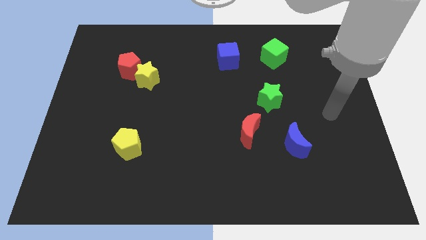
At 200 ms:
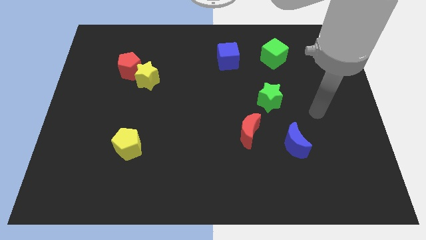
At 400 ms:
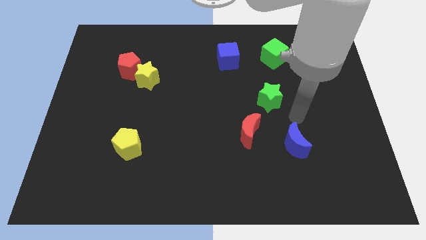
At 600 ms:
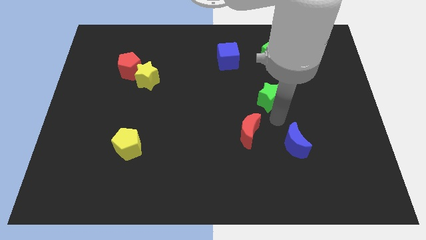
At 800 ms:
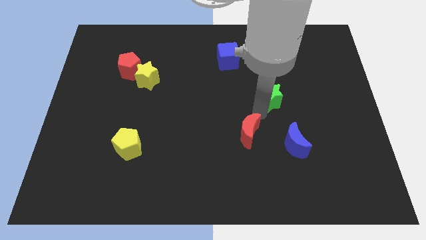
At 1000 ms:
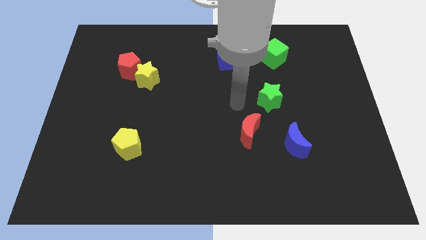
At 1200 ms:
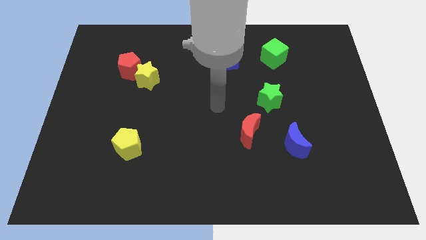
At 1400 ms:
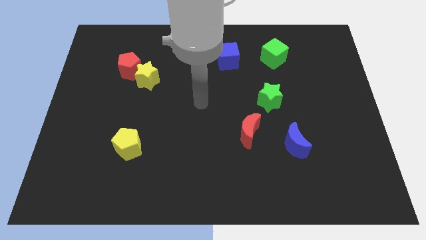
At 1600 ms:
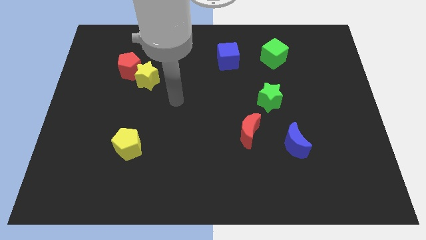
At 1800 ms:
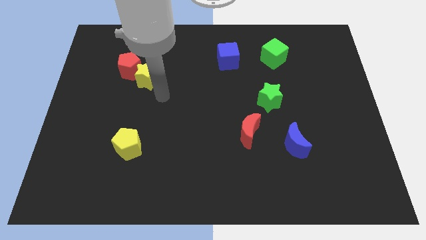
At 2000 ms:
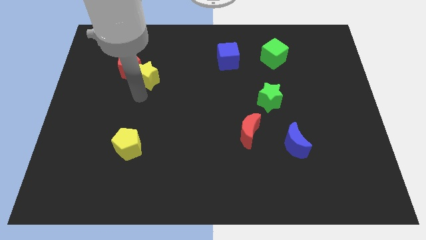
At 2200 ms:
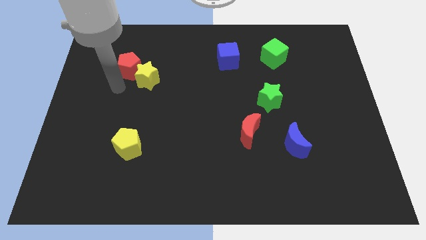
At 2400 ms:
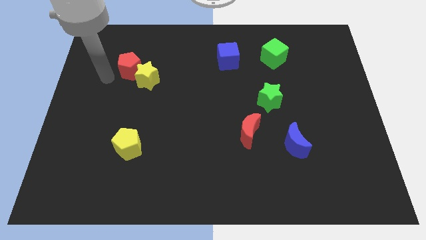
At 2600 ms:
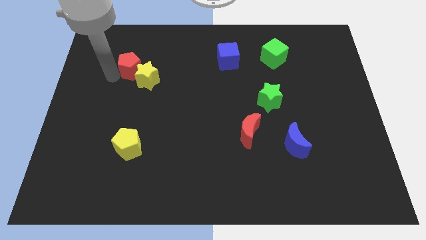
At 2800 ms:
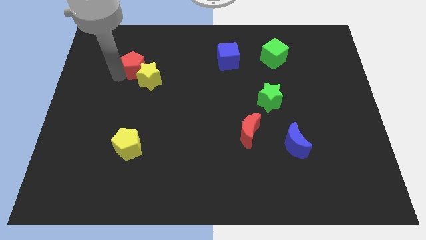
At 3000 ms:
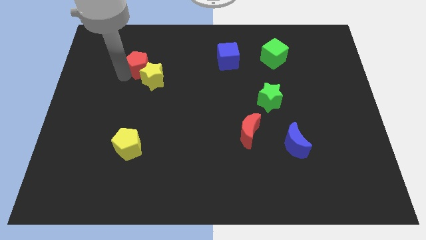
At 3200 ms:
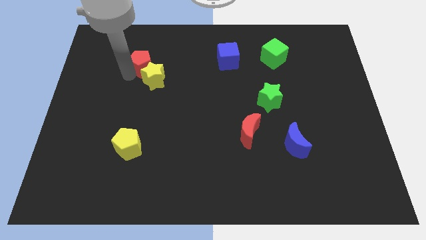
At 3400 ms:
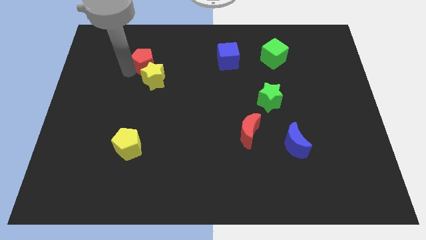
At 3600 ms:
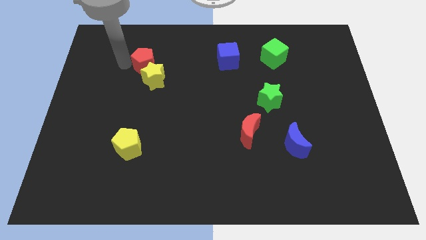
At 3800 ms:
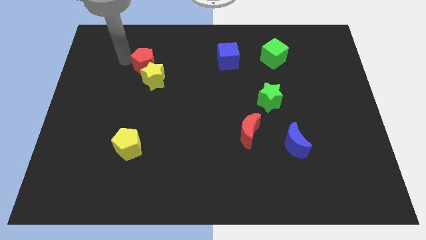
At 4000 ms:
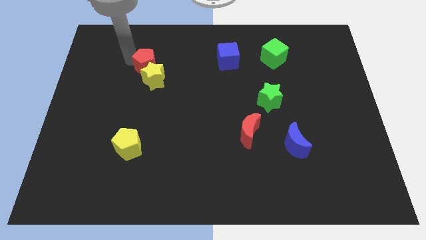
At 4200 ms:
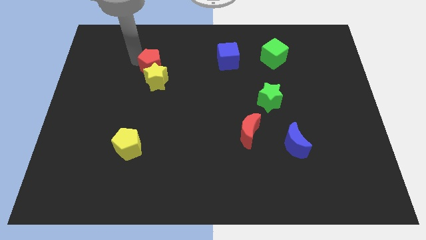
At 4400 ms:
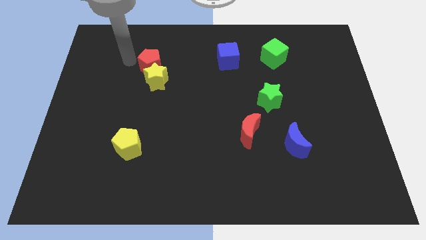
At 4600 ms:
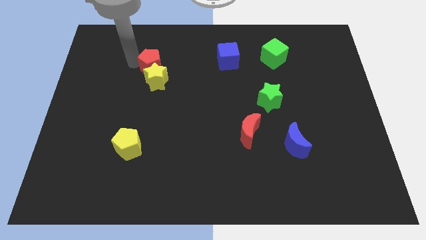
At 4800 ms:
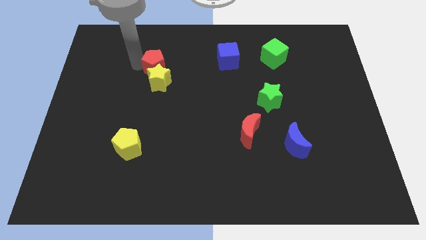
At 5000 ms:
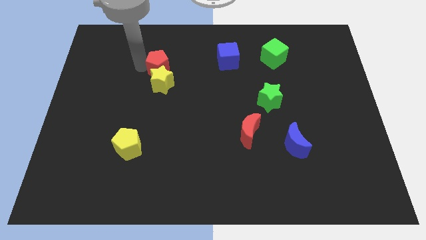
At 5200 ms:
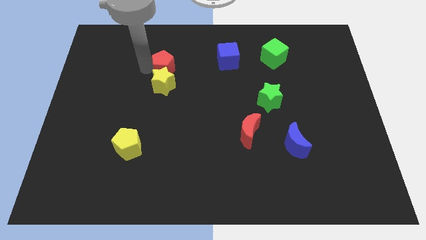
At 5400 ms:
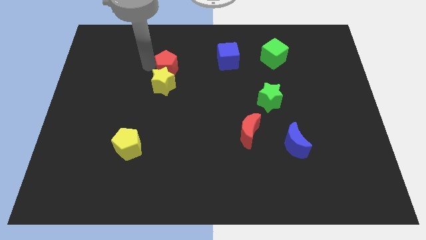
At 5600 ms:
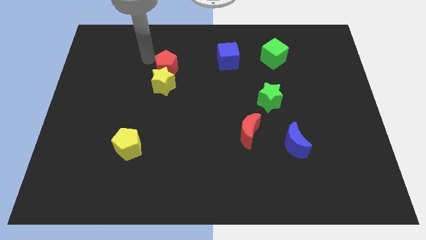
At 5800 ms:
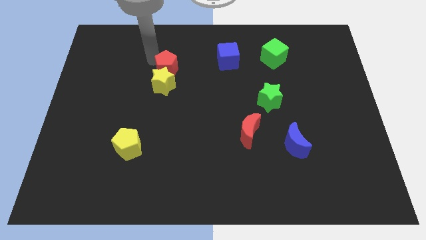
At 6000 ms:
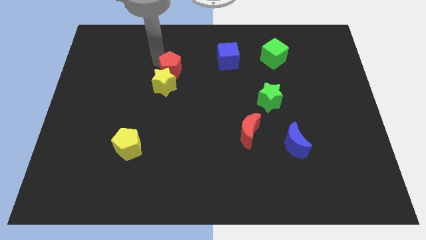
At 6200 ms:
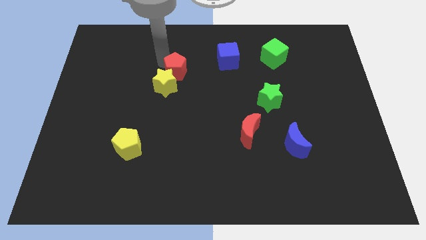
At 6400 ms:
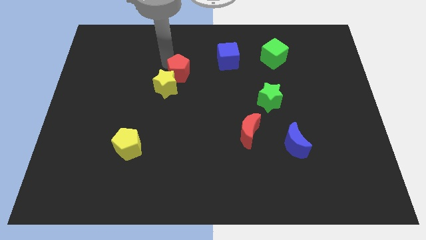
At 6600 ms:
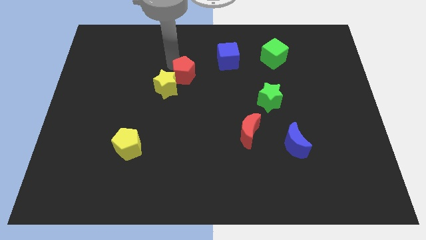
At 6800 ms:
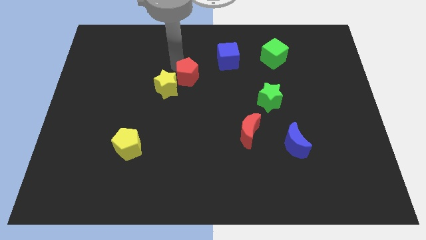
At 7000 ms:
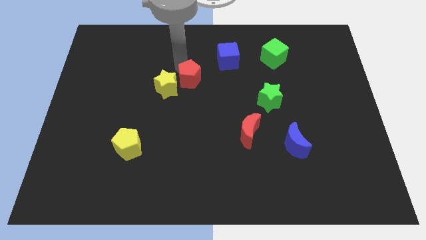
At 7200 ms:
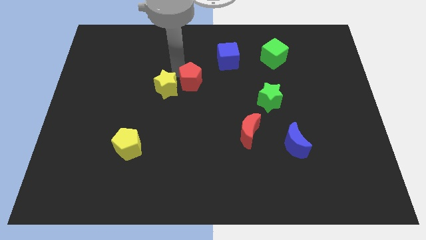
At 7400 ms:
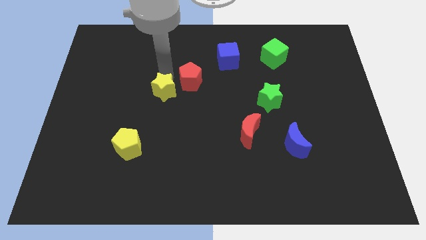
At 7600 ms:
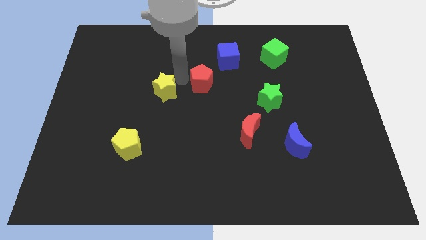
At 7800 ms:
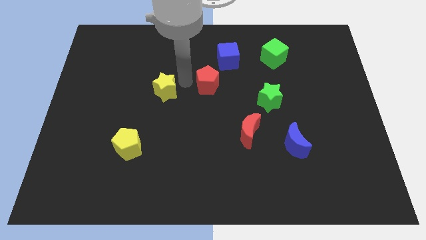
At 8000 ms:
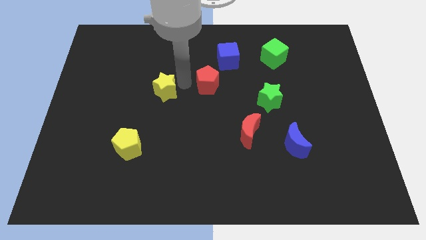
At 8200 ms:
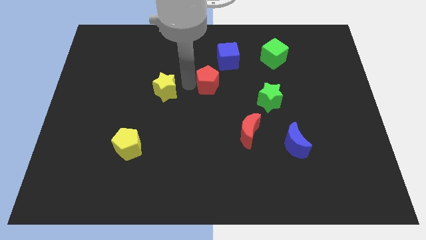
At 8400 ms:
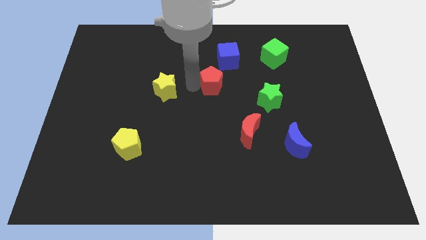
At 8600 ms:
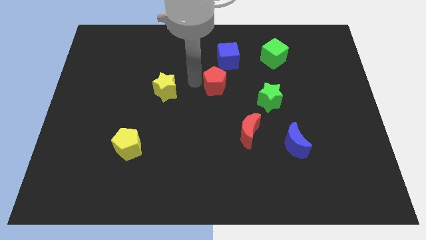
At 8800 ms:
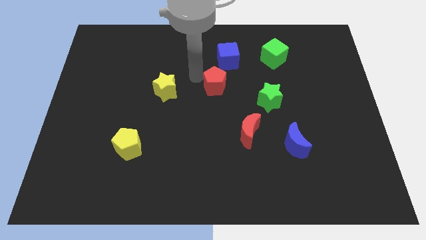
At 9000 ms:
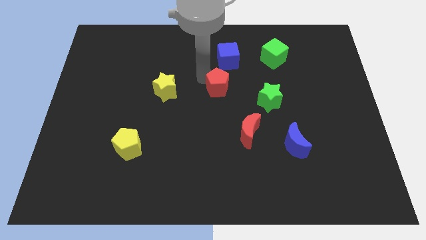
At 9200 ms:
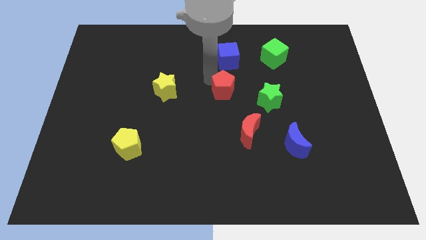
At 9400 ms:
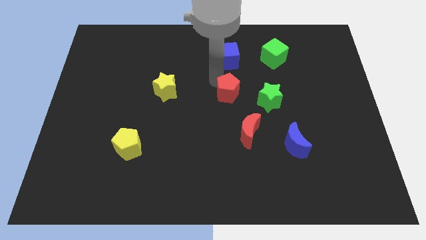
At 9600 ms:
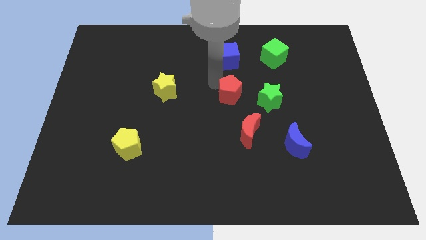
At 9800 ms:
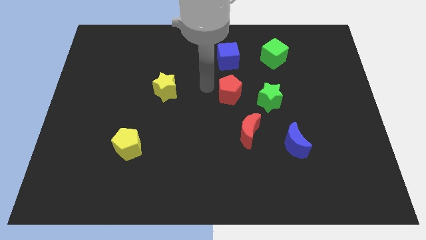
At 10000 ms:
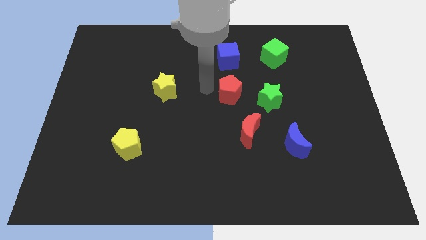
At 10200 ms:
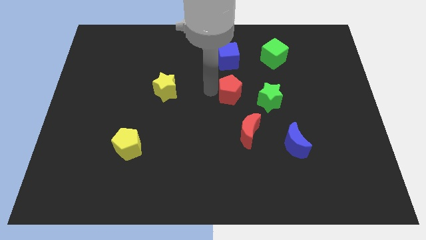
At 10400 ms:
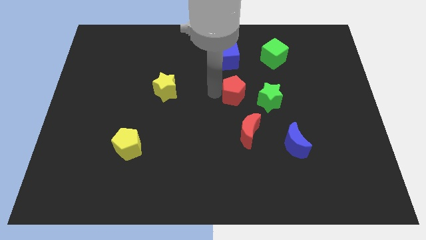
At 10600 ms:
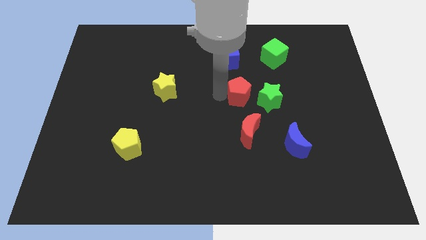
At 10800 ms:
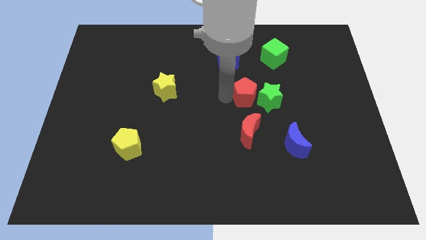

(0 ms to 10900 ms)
push the red pentagon towards the green star

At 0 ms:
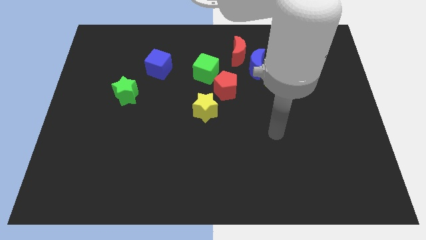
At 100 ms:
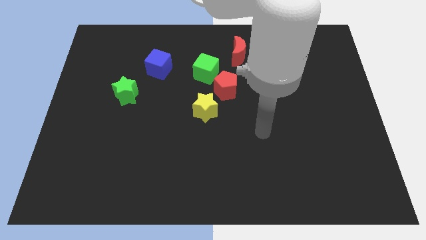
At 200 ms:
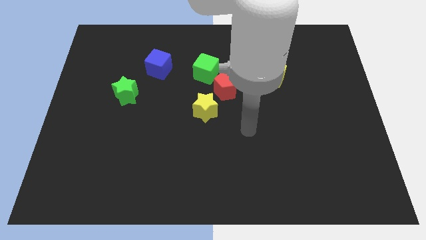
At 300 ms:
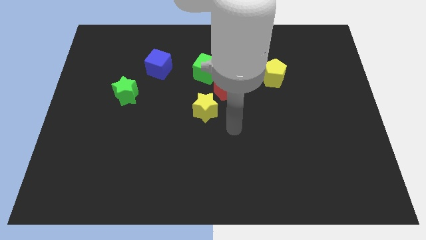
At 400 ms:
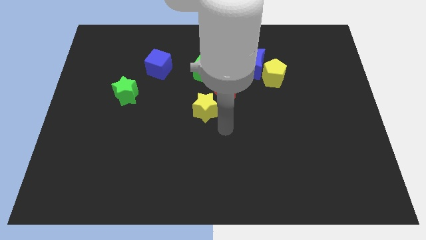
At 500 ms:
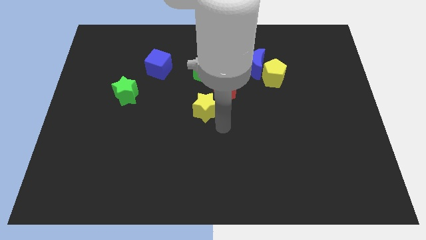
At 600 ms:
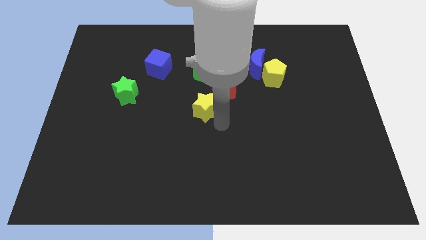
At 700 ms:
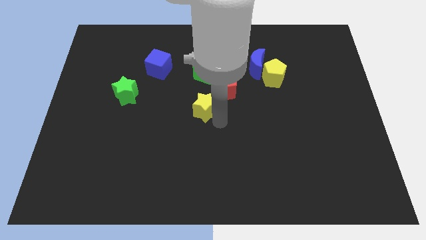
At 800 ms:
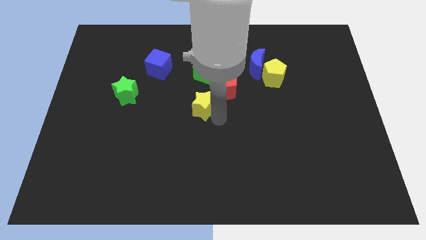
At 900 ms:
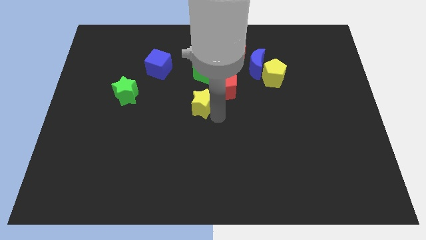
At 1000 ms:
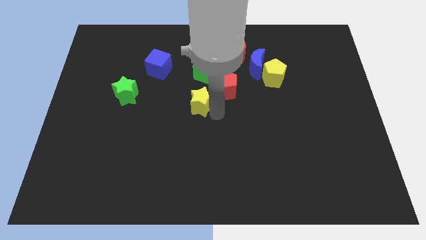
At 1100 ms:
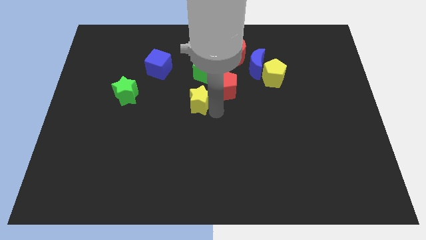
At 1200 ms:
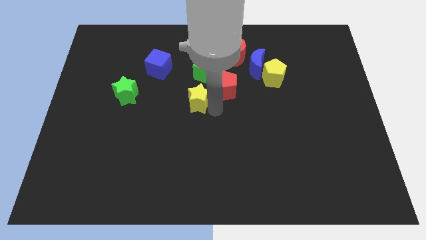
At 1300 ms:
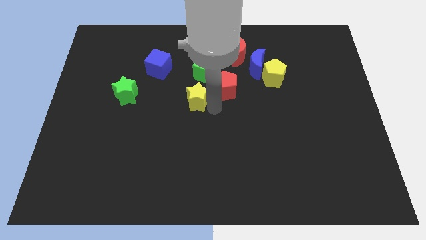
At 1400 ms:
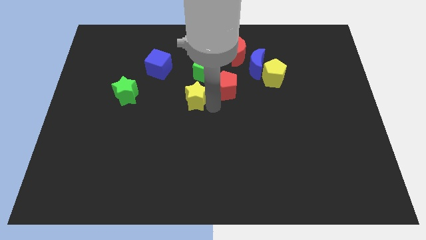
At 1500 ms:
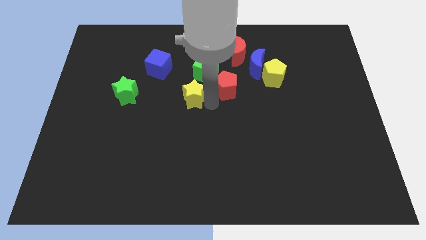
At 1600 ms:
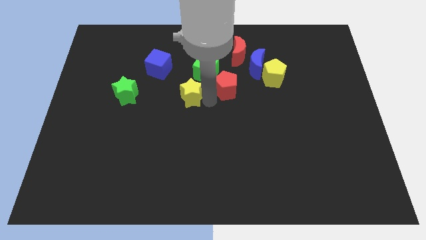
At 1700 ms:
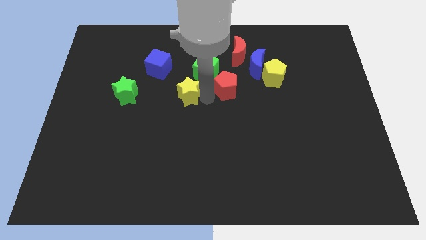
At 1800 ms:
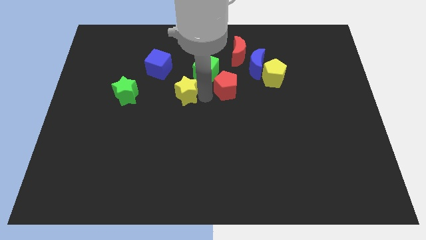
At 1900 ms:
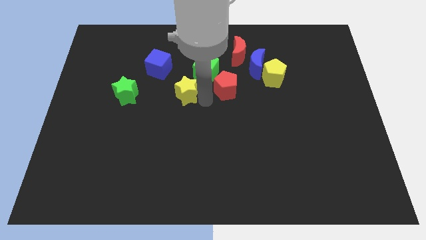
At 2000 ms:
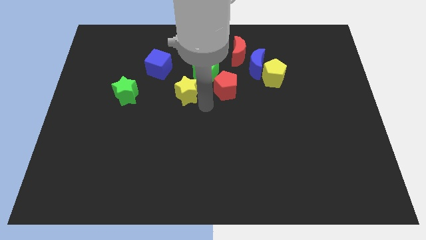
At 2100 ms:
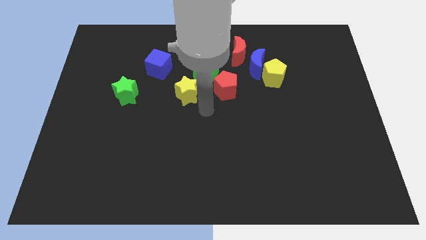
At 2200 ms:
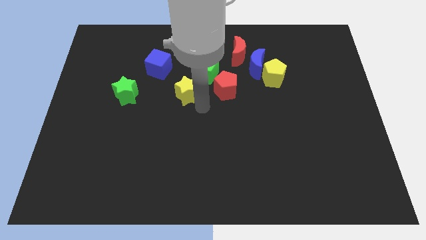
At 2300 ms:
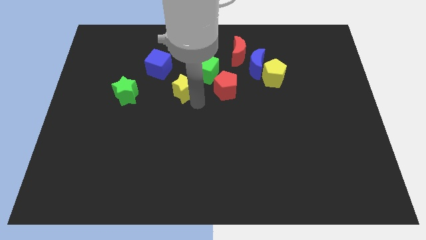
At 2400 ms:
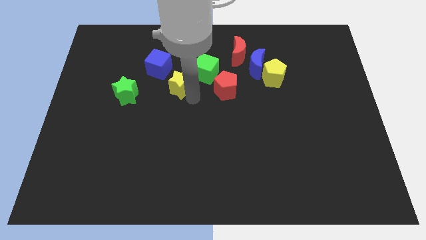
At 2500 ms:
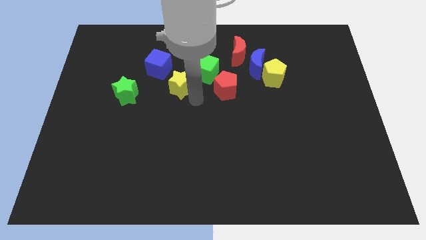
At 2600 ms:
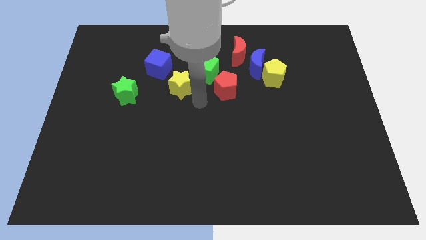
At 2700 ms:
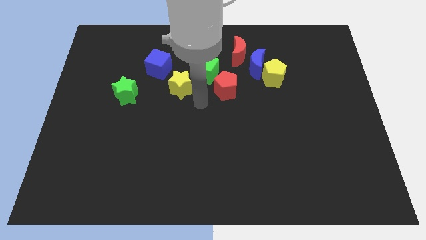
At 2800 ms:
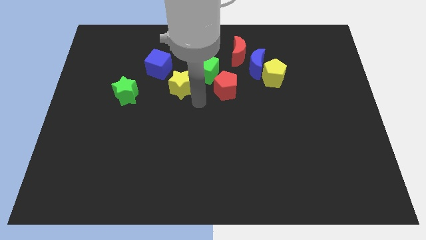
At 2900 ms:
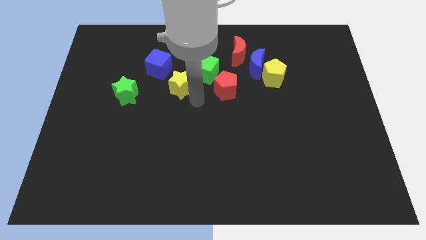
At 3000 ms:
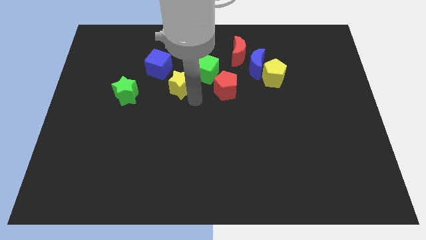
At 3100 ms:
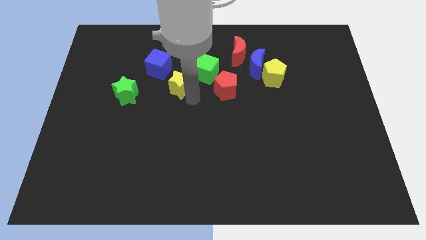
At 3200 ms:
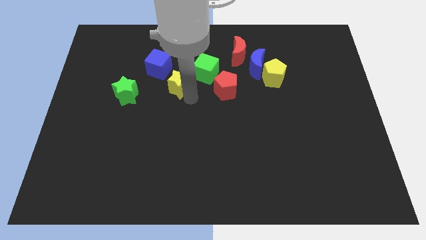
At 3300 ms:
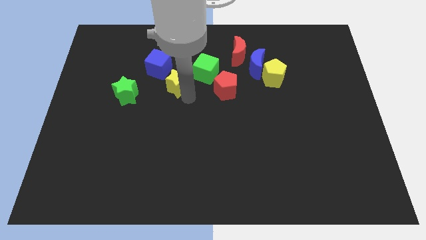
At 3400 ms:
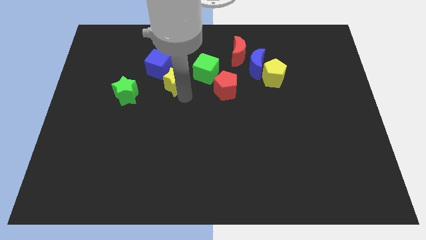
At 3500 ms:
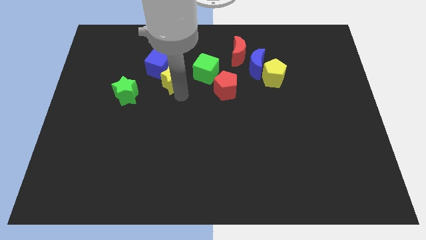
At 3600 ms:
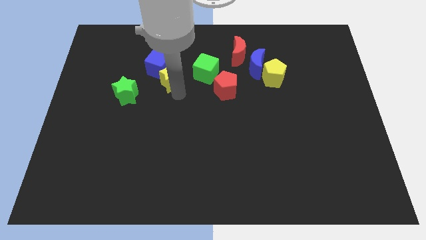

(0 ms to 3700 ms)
slide the yellow star next to the blue cube
